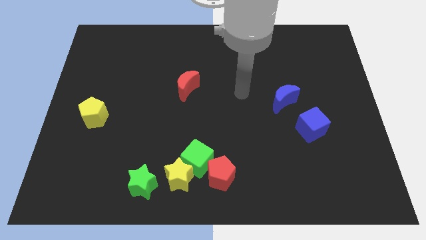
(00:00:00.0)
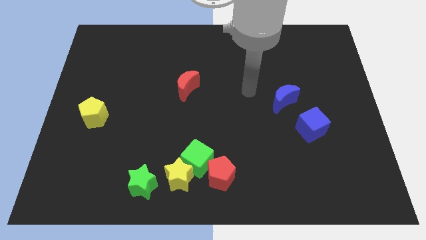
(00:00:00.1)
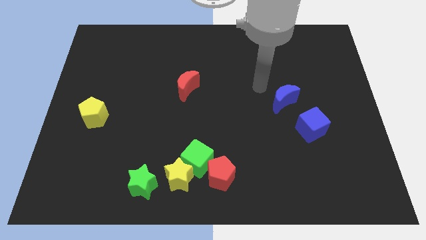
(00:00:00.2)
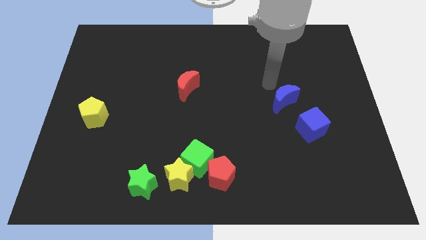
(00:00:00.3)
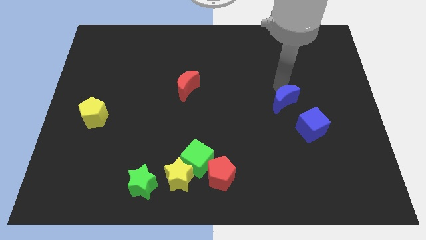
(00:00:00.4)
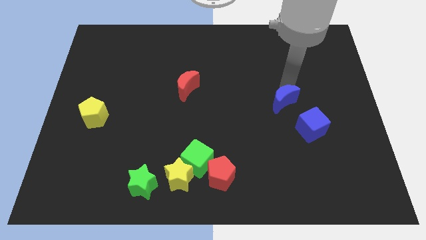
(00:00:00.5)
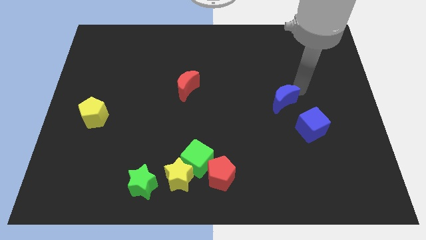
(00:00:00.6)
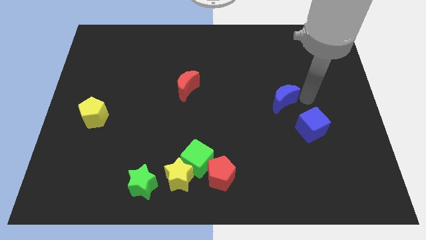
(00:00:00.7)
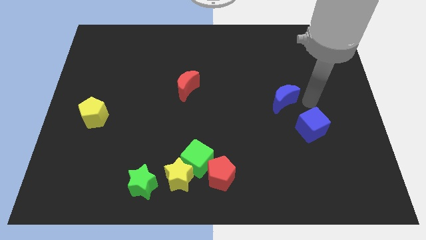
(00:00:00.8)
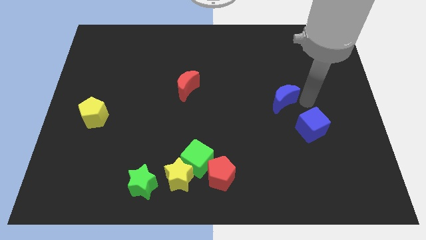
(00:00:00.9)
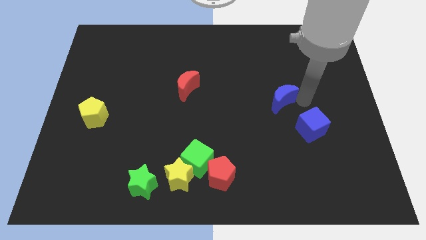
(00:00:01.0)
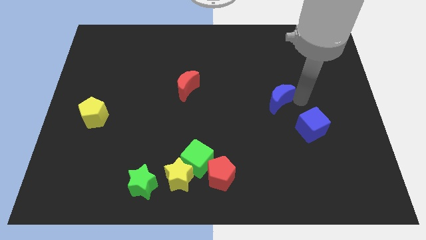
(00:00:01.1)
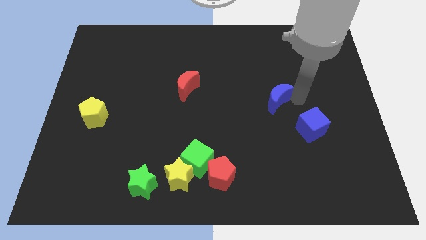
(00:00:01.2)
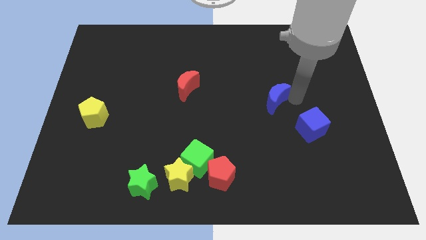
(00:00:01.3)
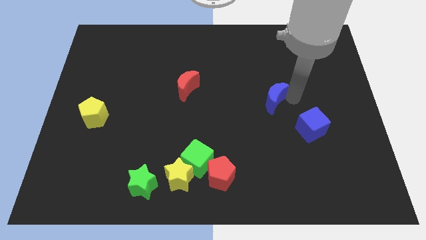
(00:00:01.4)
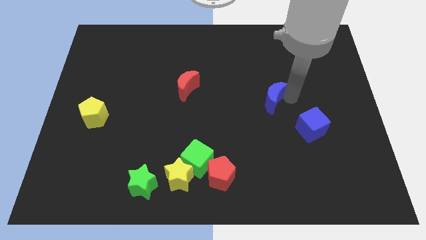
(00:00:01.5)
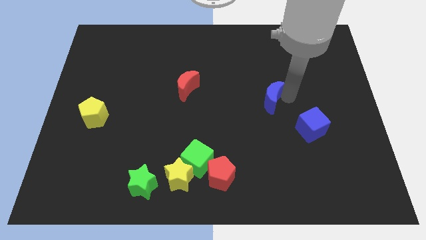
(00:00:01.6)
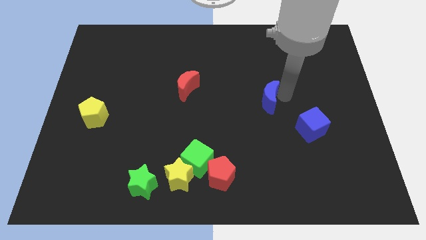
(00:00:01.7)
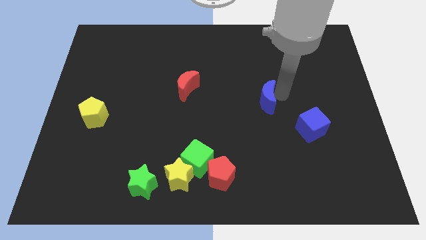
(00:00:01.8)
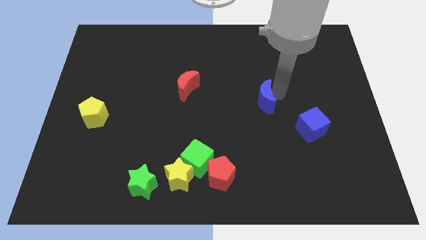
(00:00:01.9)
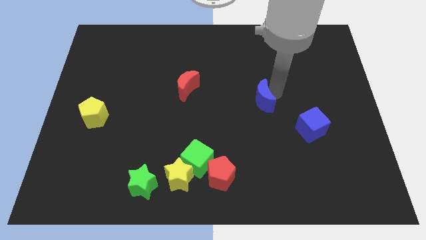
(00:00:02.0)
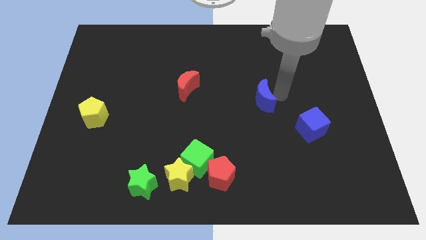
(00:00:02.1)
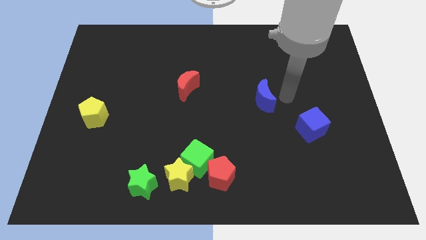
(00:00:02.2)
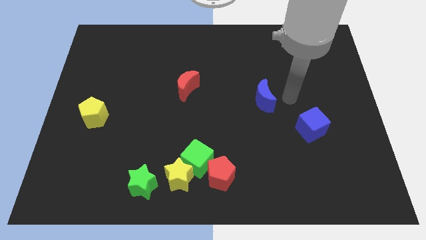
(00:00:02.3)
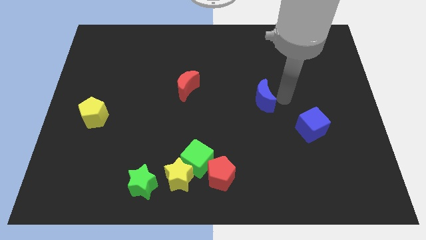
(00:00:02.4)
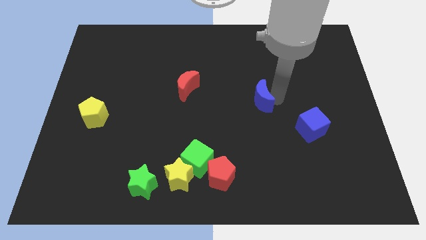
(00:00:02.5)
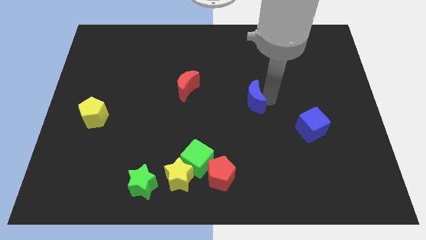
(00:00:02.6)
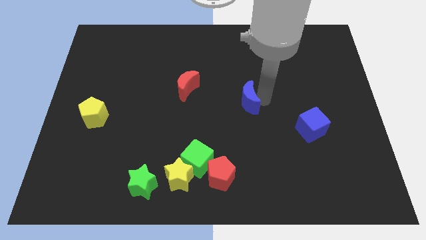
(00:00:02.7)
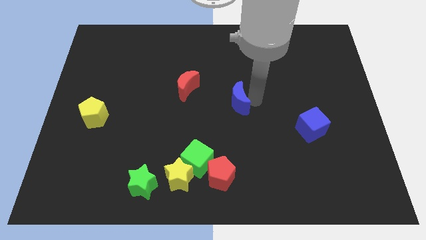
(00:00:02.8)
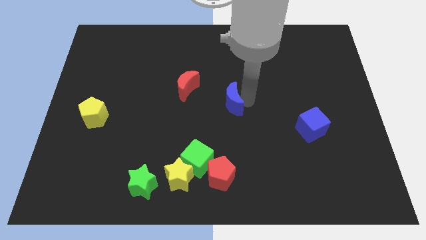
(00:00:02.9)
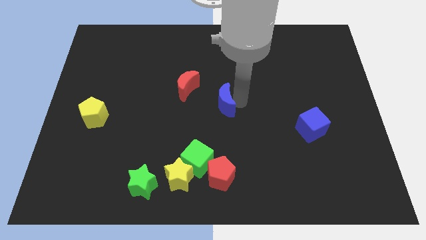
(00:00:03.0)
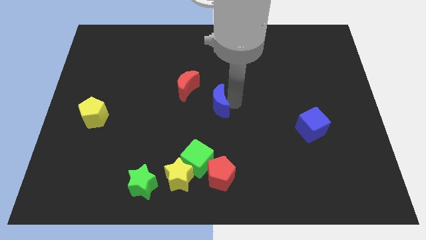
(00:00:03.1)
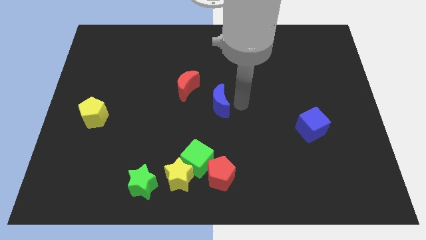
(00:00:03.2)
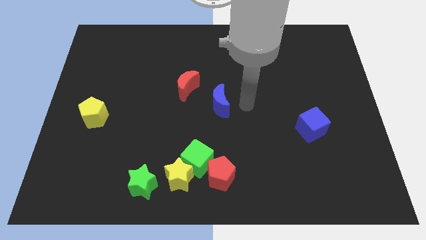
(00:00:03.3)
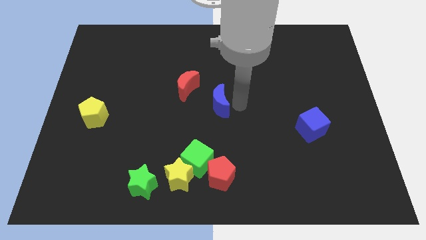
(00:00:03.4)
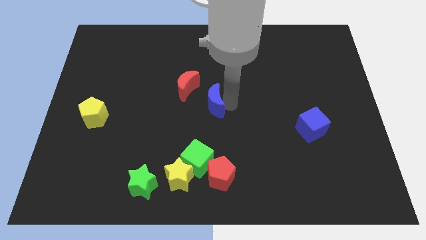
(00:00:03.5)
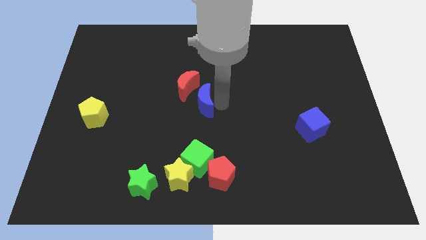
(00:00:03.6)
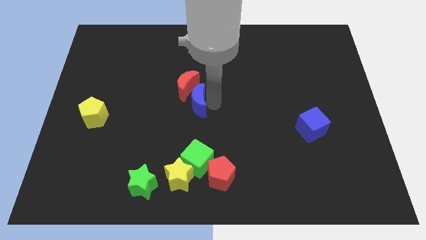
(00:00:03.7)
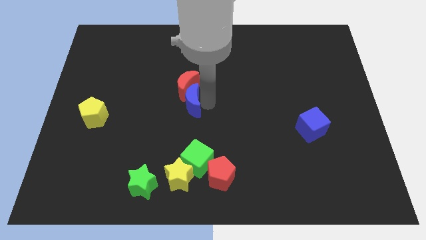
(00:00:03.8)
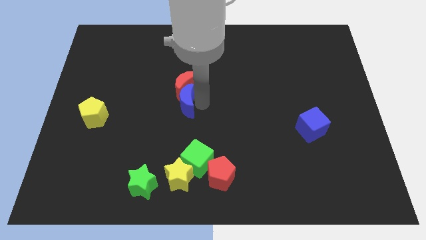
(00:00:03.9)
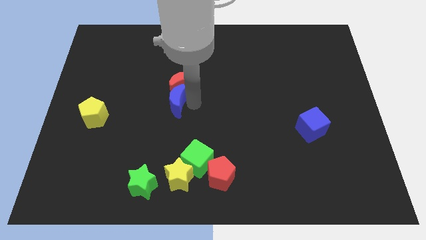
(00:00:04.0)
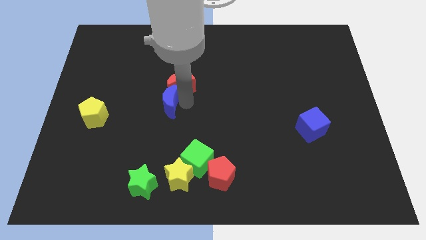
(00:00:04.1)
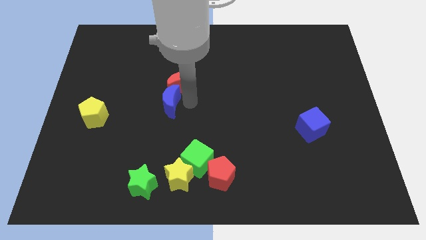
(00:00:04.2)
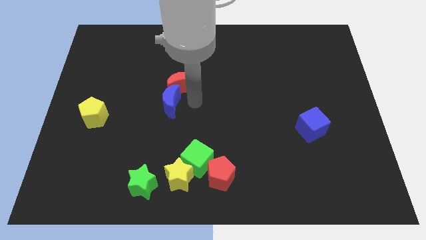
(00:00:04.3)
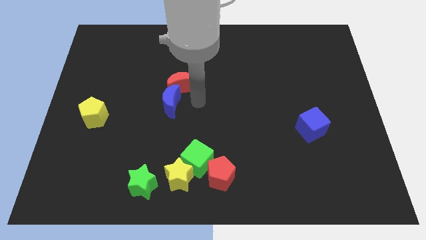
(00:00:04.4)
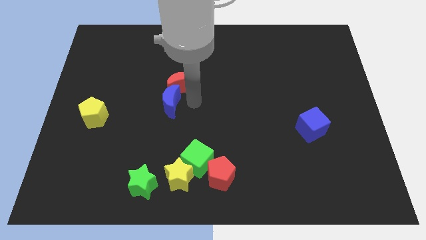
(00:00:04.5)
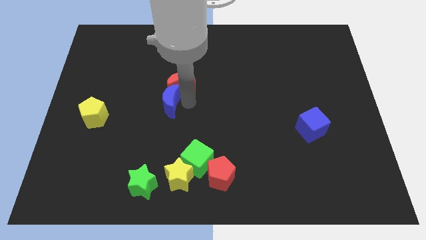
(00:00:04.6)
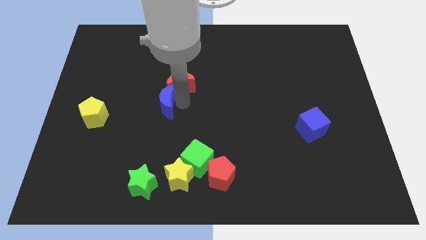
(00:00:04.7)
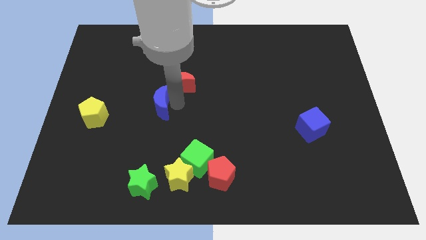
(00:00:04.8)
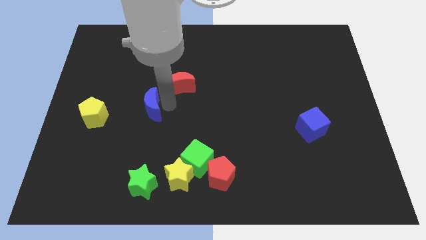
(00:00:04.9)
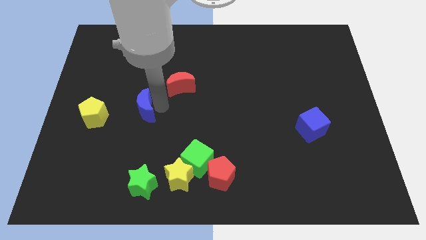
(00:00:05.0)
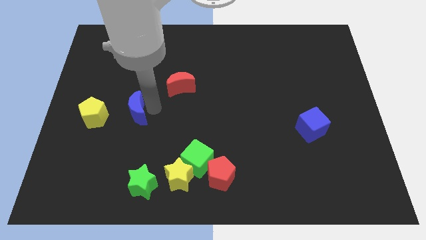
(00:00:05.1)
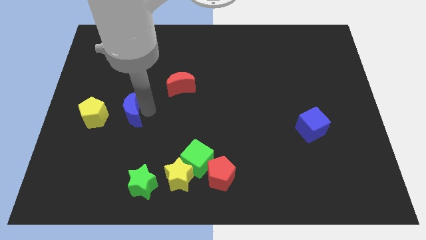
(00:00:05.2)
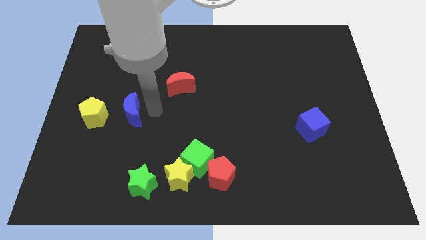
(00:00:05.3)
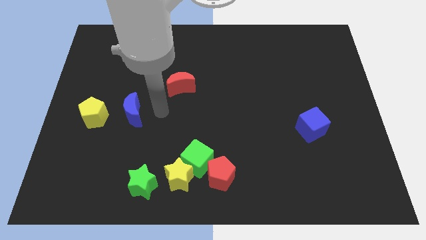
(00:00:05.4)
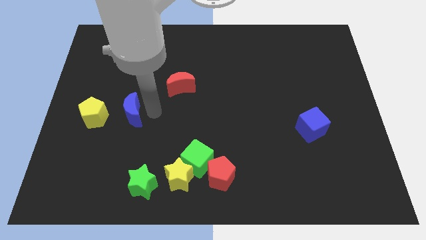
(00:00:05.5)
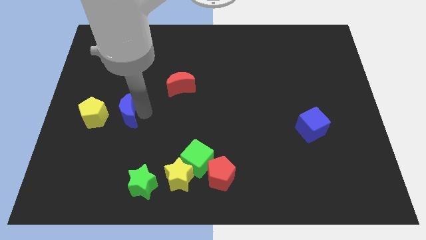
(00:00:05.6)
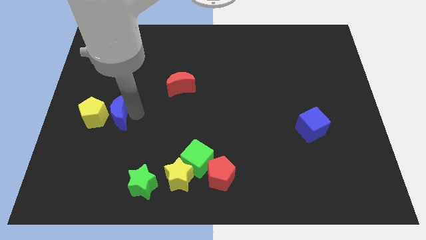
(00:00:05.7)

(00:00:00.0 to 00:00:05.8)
move the blue moon towards the yellow pentagon
